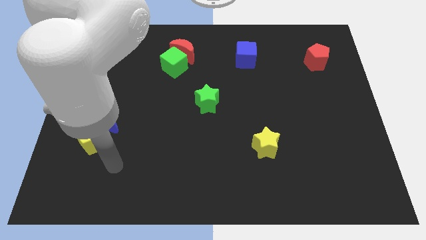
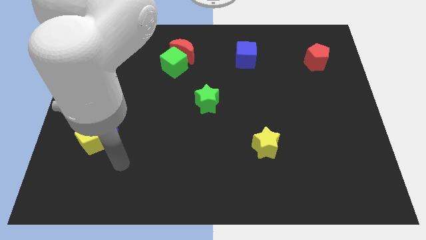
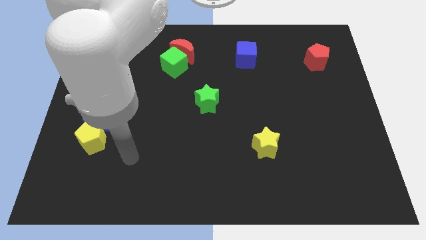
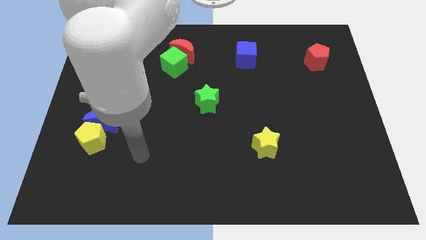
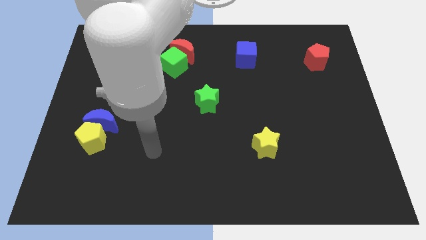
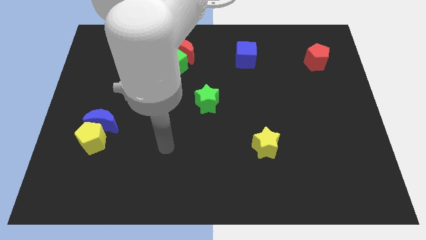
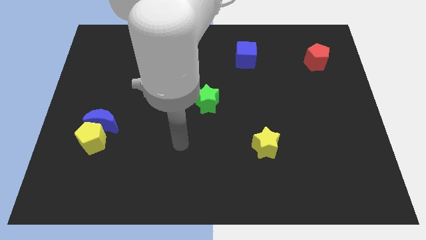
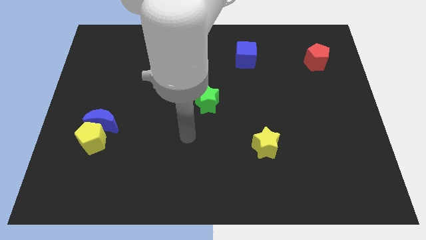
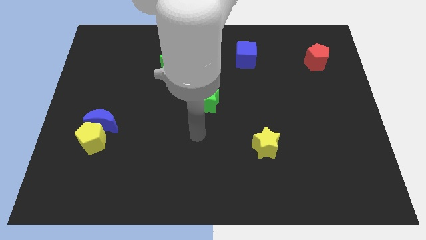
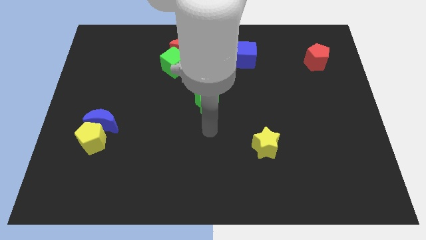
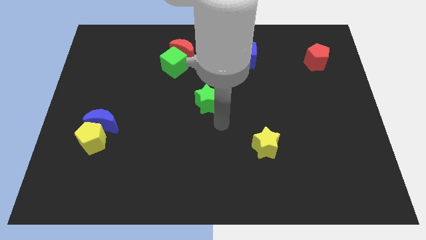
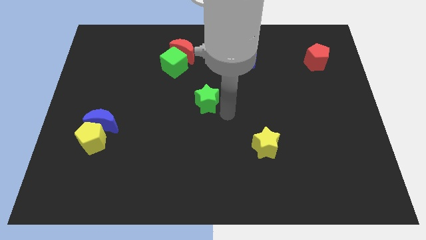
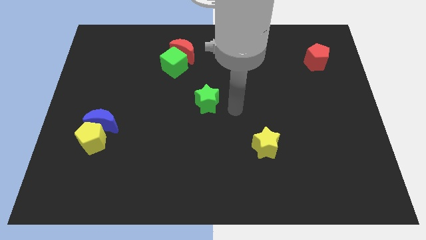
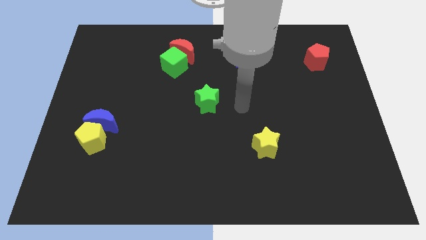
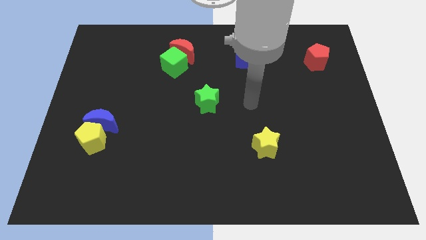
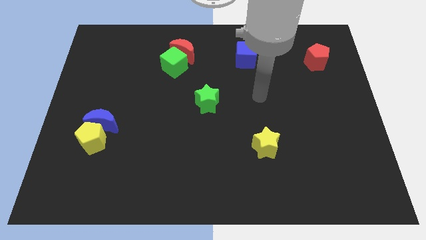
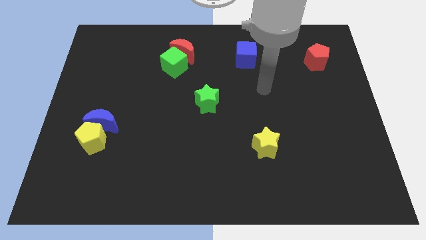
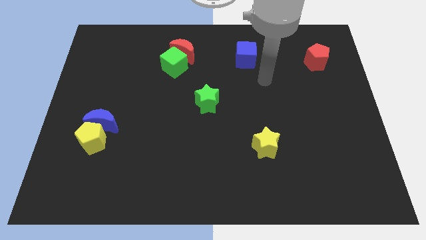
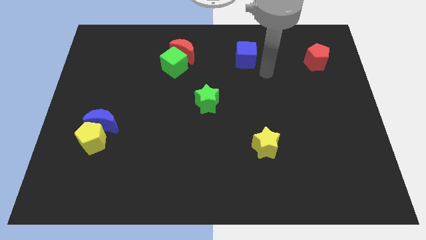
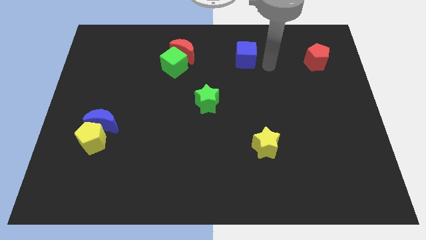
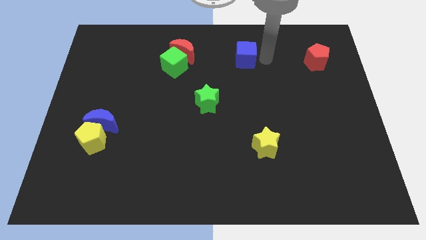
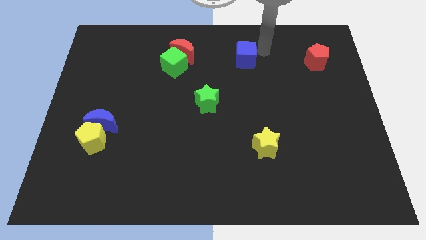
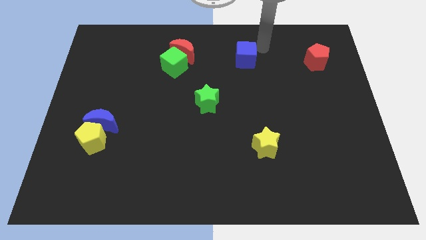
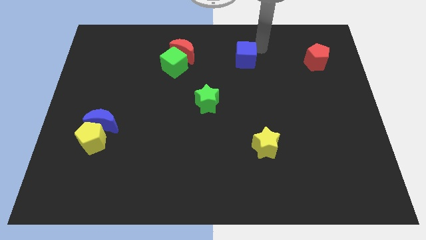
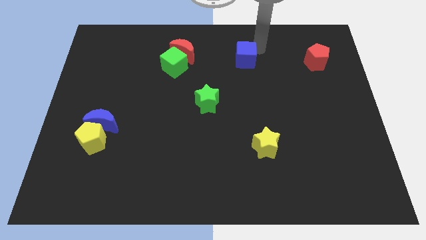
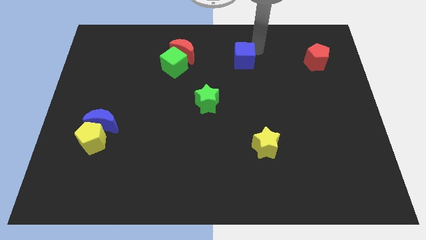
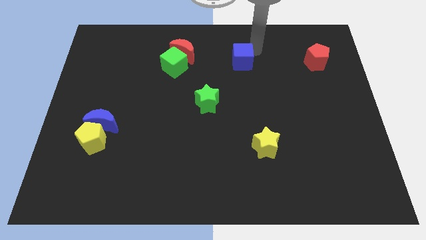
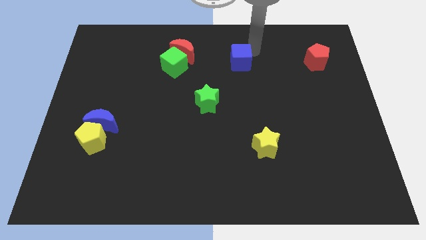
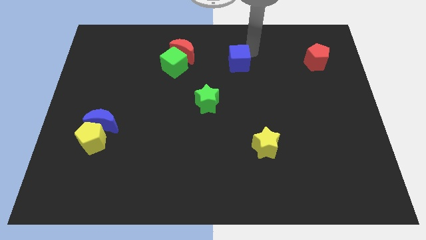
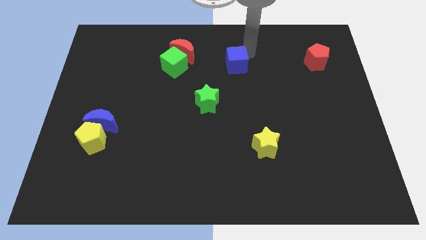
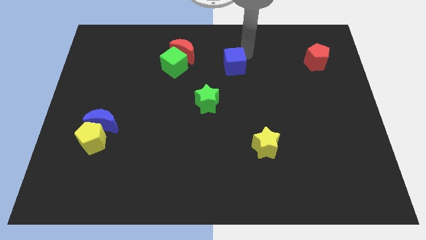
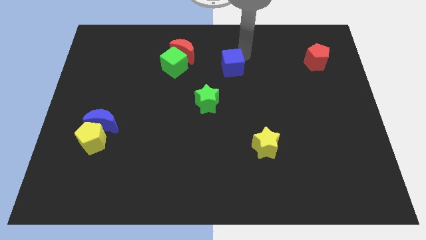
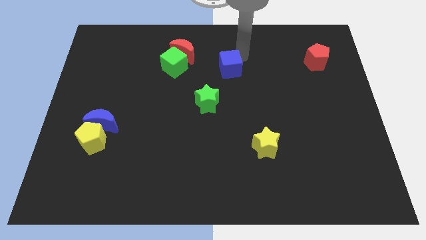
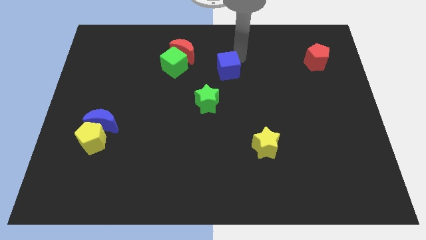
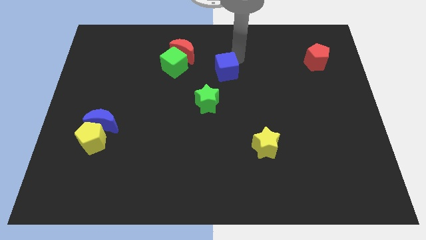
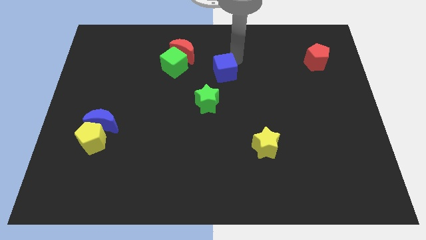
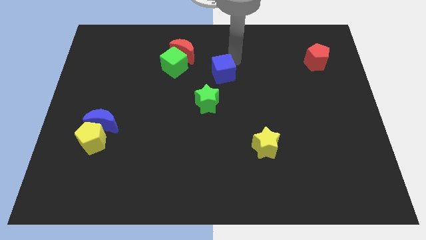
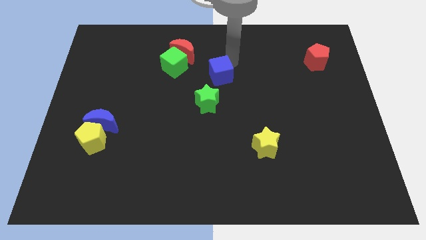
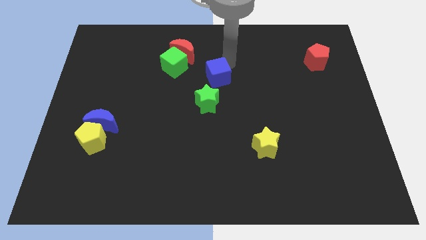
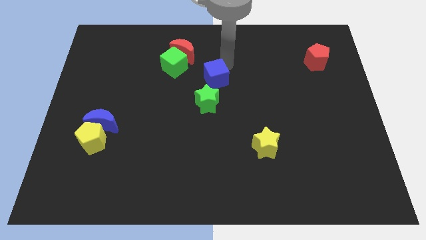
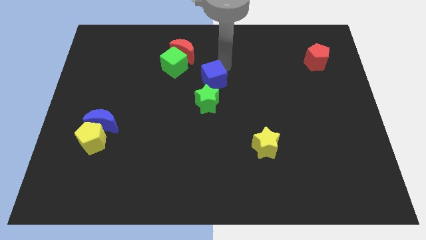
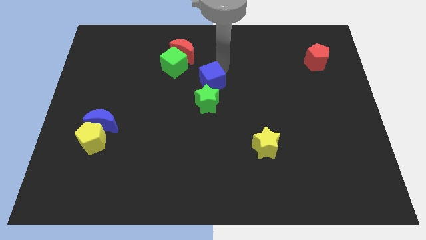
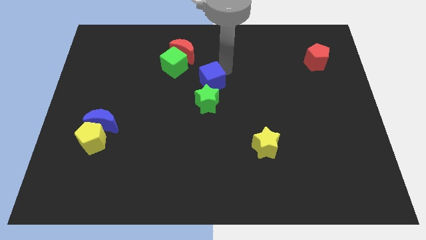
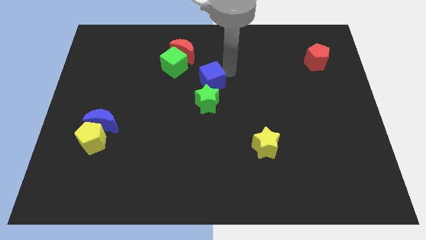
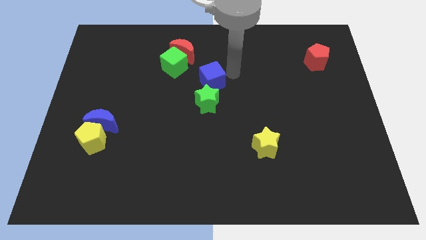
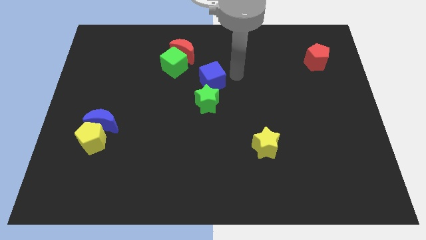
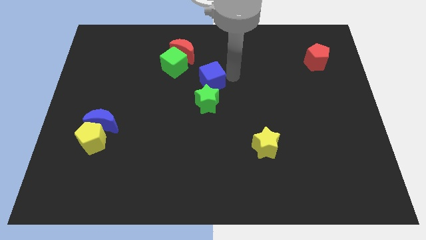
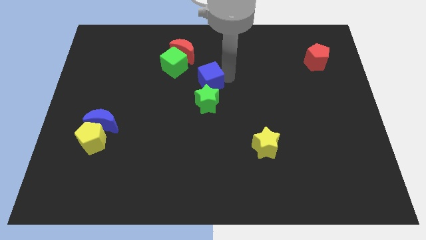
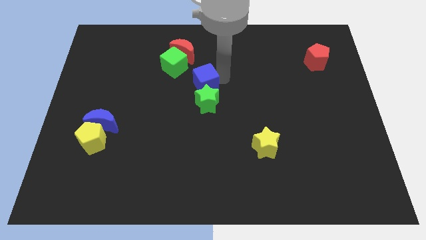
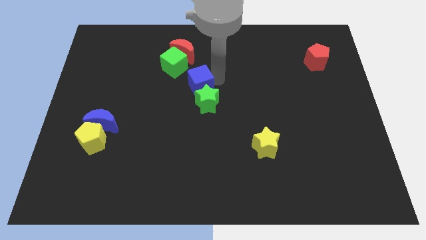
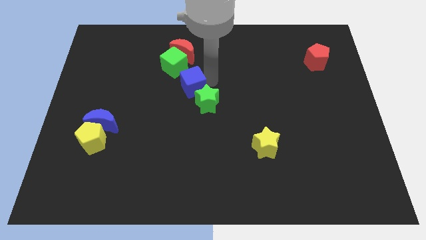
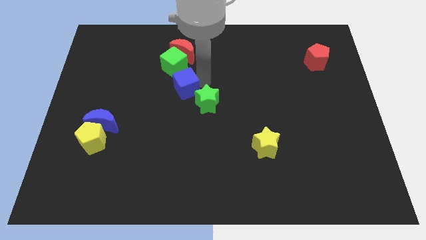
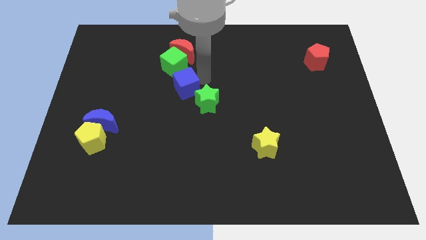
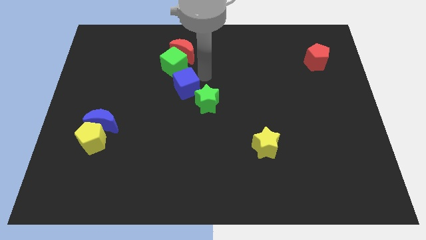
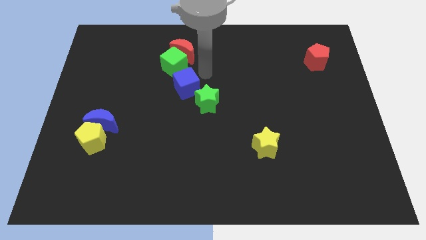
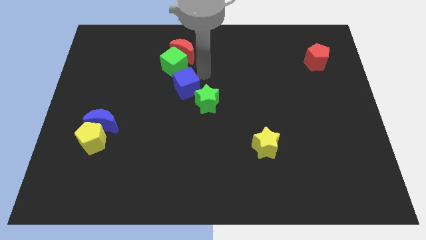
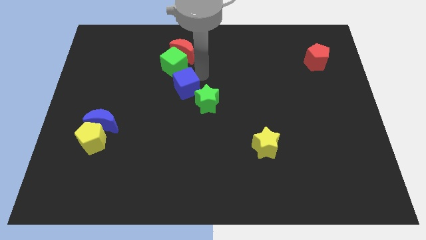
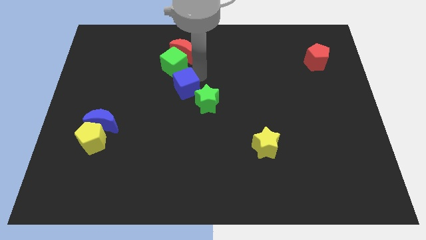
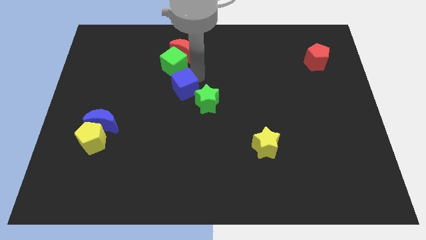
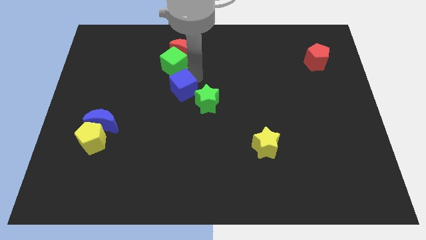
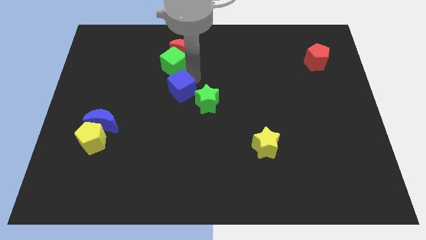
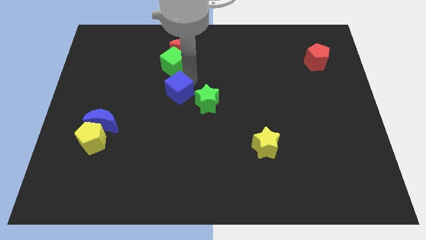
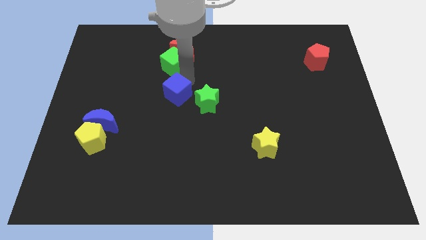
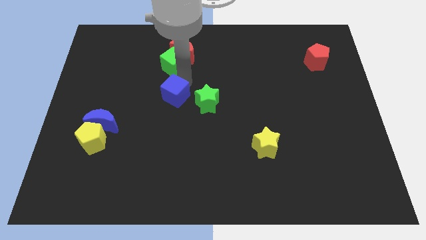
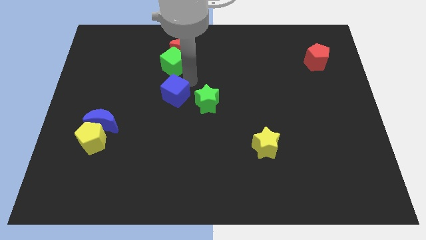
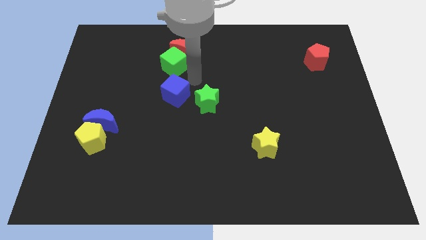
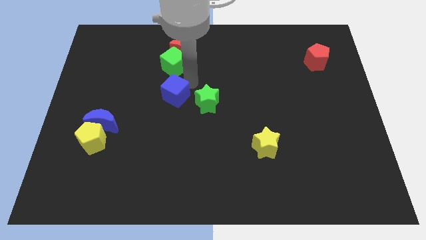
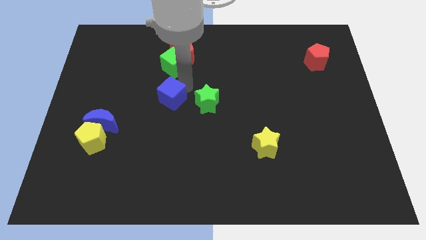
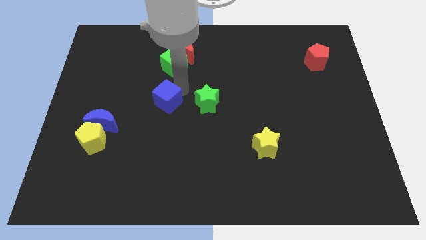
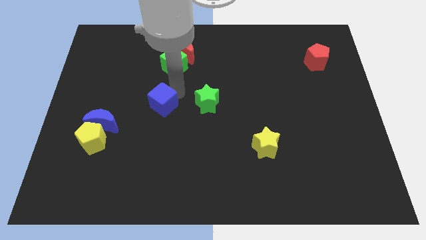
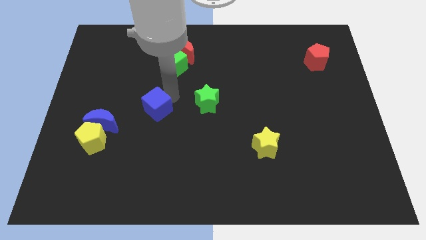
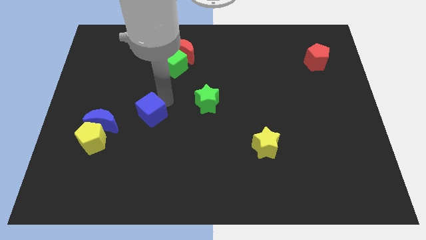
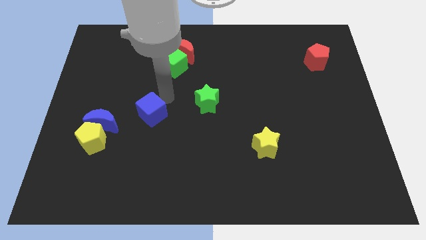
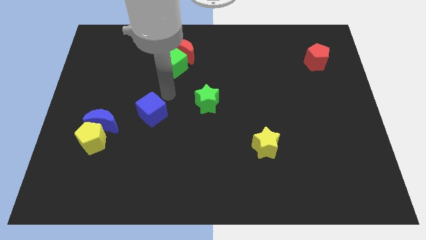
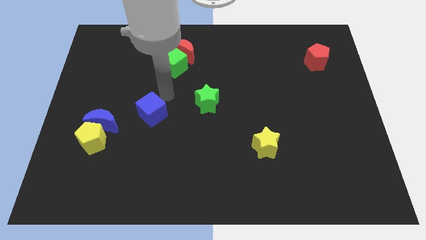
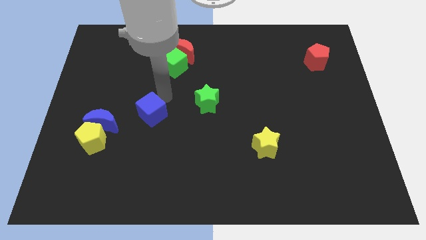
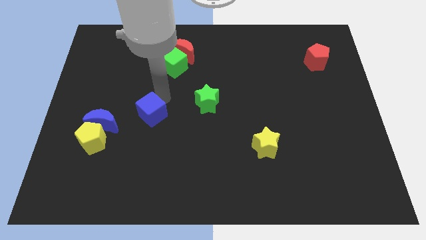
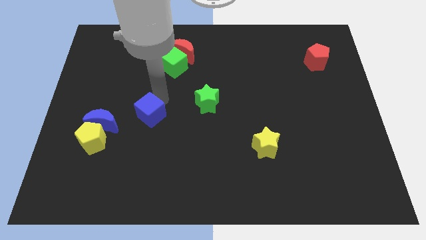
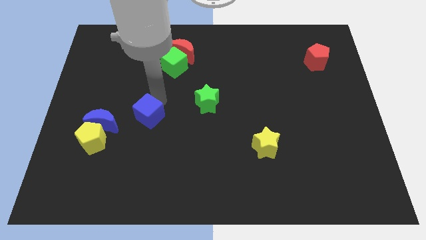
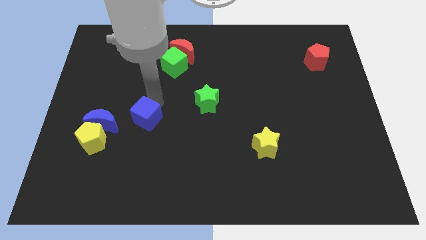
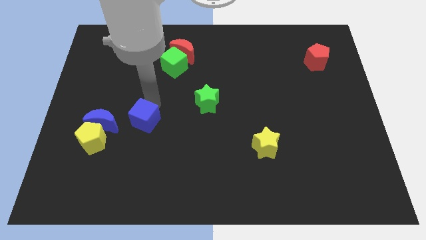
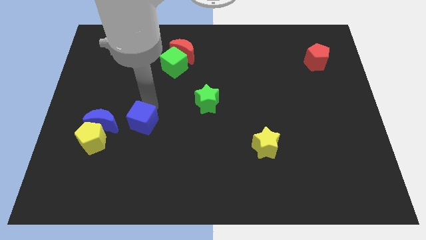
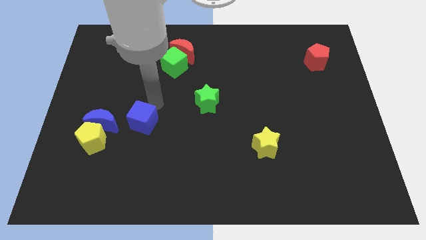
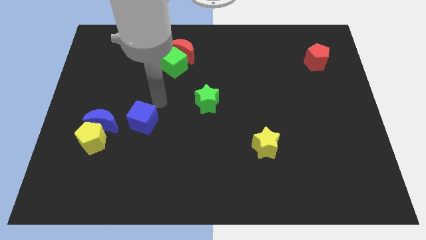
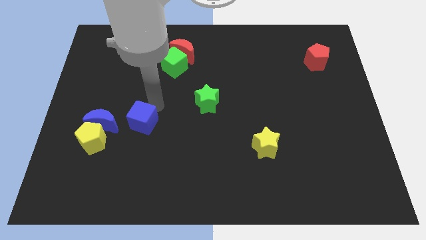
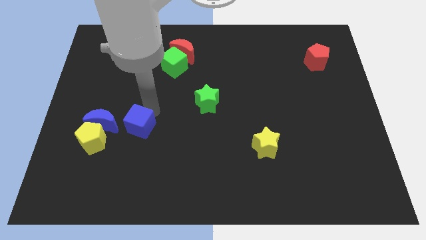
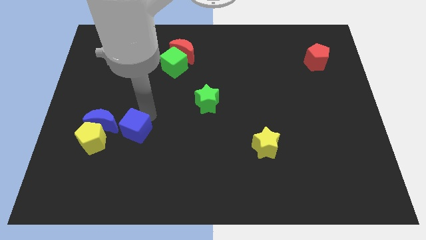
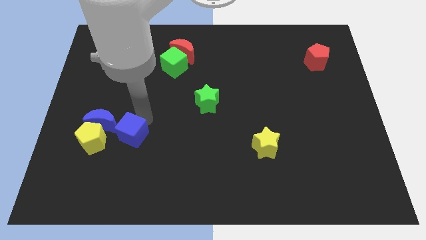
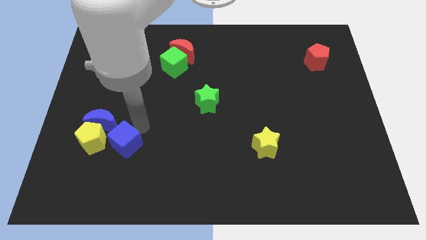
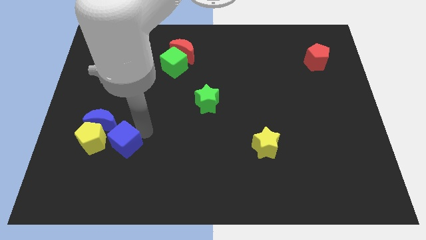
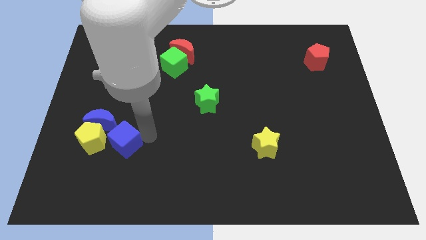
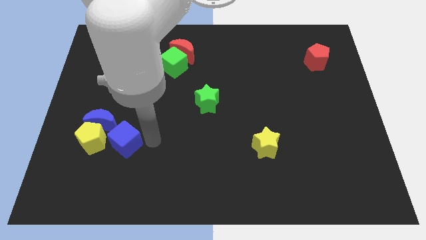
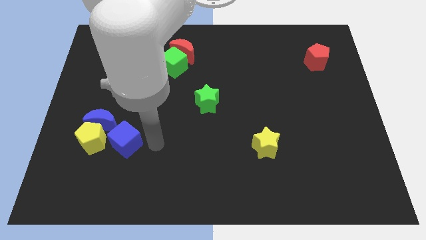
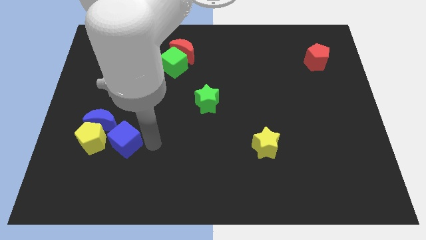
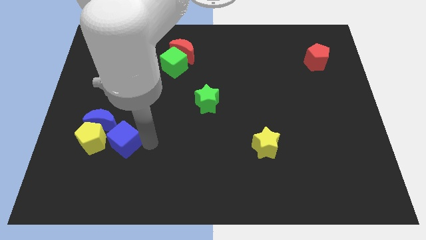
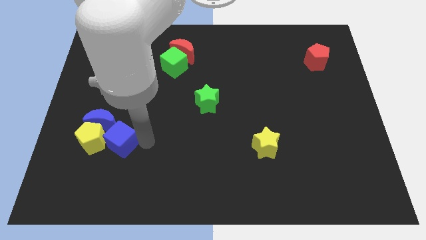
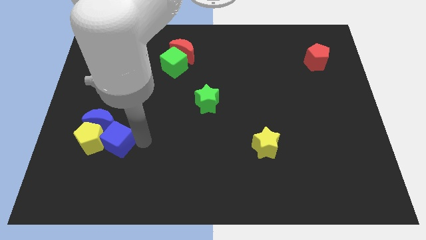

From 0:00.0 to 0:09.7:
slide the blue cube towards the yellow pentagon
